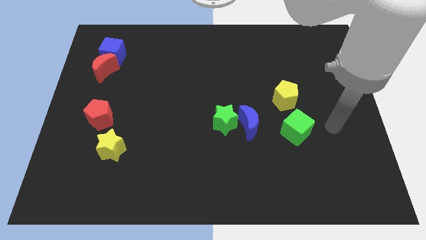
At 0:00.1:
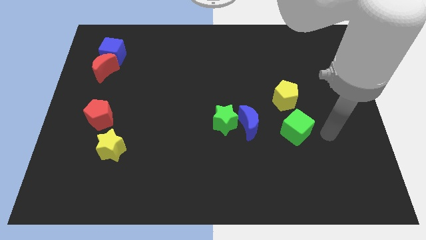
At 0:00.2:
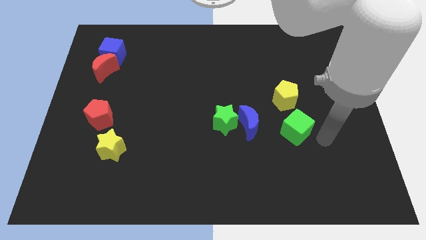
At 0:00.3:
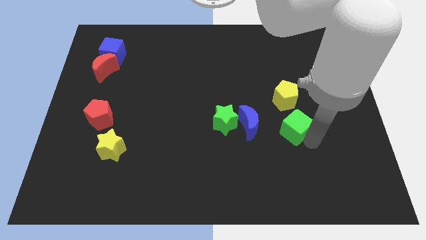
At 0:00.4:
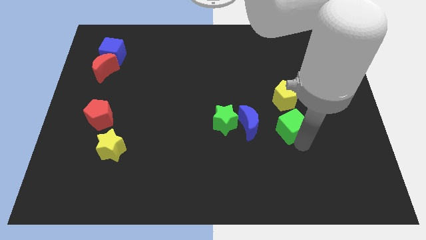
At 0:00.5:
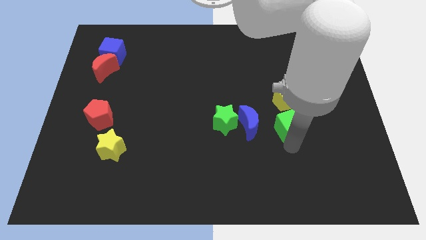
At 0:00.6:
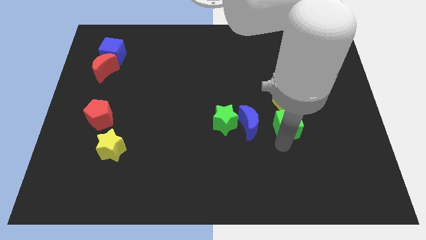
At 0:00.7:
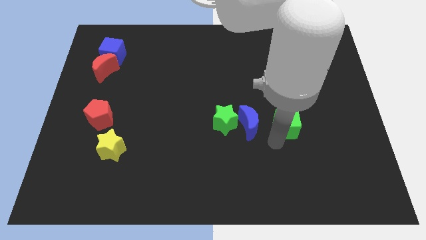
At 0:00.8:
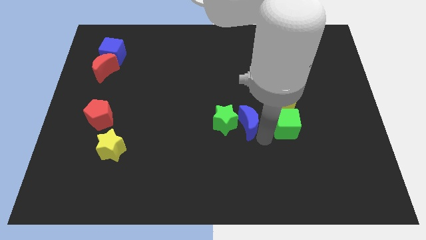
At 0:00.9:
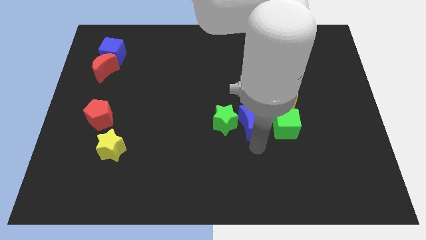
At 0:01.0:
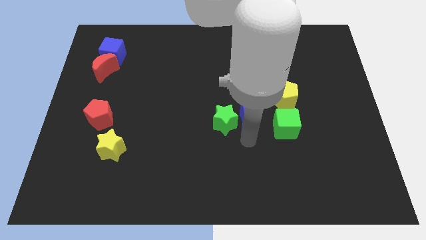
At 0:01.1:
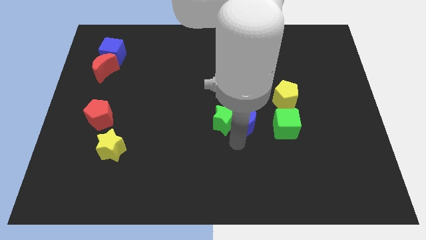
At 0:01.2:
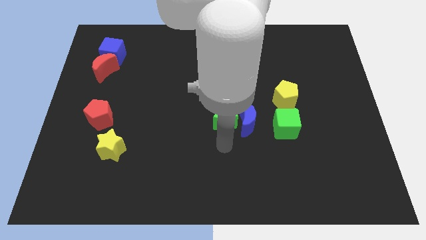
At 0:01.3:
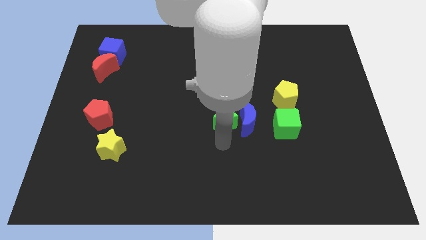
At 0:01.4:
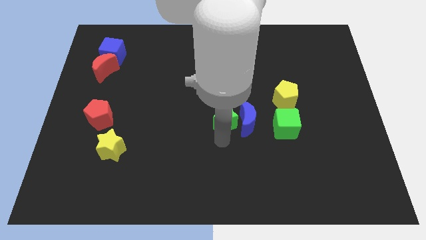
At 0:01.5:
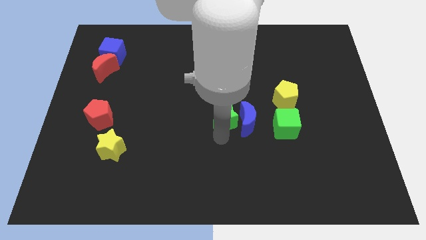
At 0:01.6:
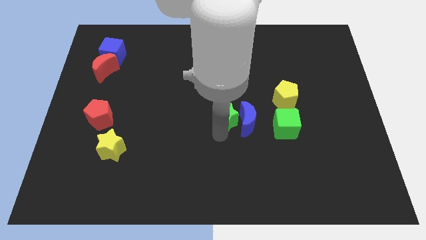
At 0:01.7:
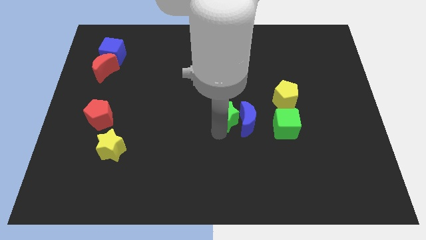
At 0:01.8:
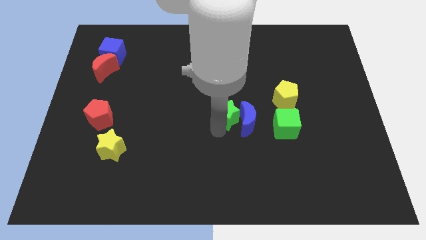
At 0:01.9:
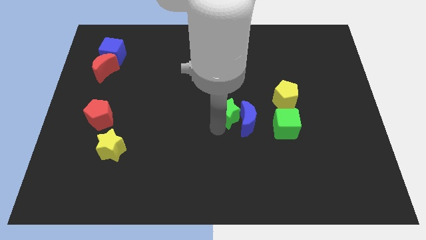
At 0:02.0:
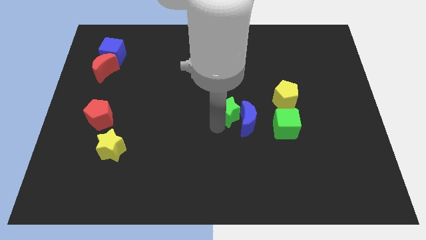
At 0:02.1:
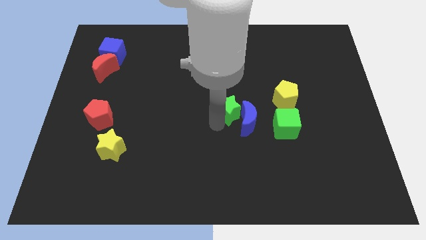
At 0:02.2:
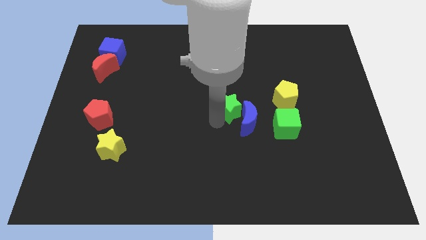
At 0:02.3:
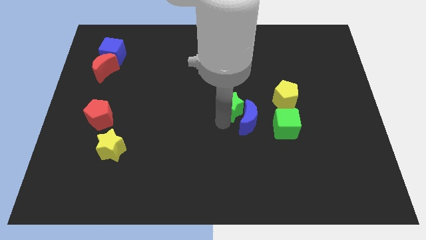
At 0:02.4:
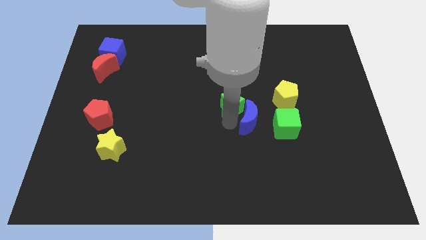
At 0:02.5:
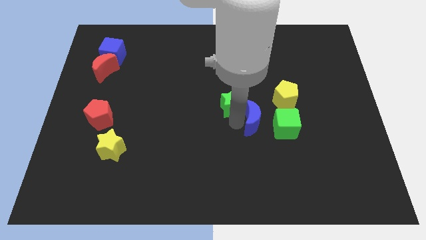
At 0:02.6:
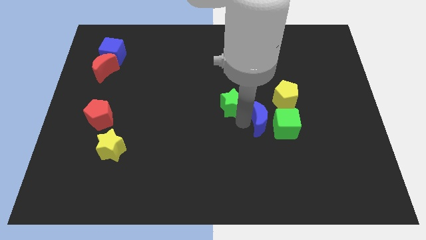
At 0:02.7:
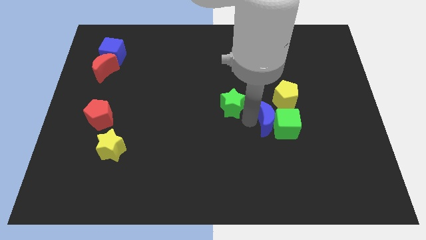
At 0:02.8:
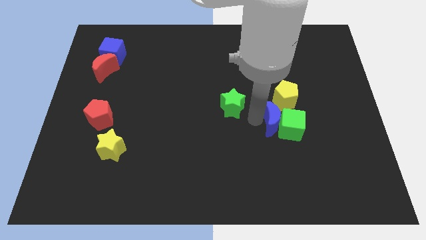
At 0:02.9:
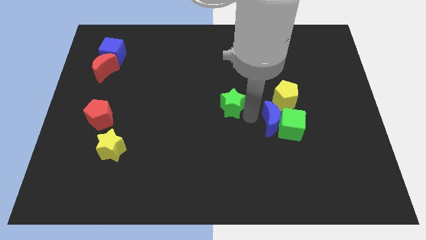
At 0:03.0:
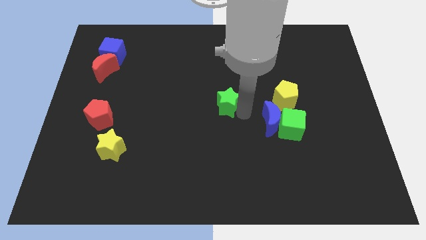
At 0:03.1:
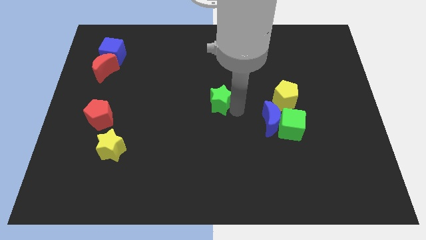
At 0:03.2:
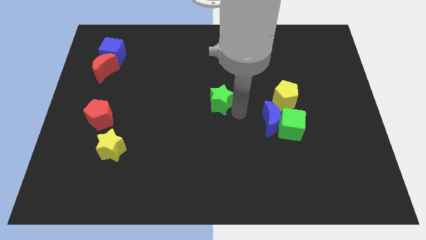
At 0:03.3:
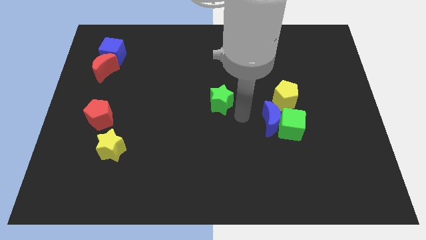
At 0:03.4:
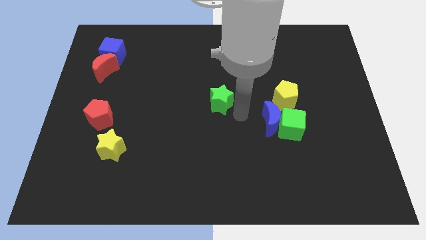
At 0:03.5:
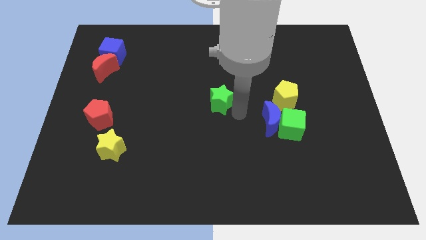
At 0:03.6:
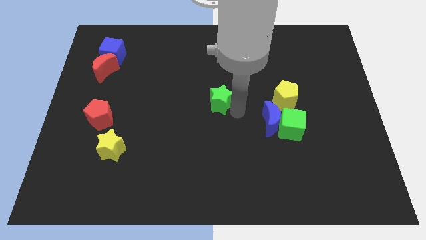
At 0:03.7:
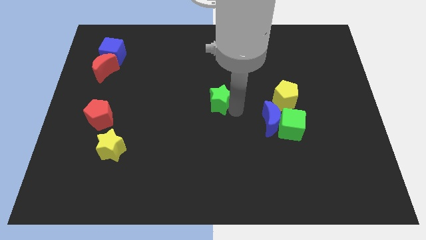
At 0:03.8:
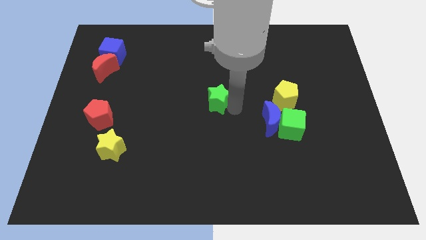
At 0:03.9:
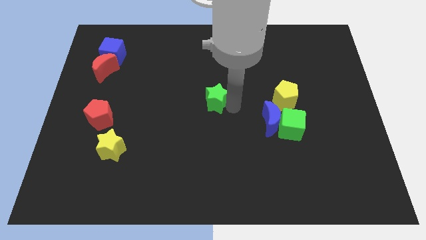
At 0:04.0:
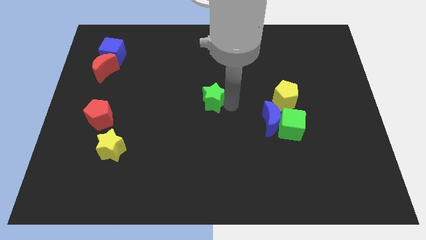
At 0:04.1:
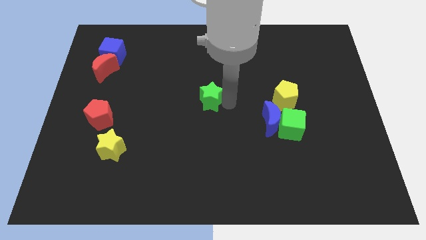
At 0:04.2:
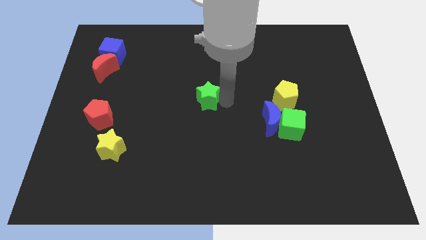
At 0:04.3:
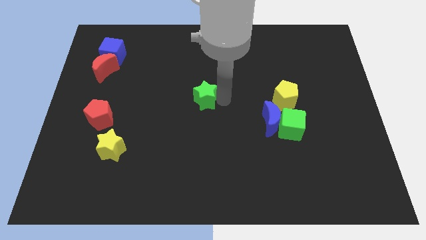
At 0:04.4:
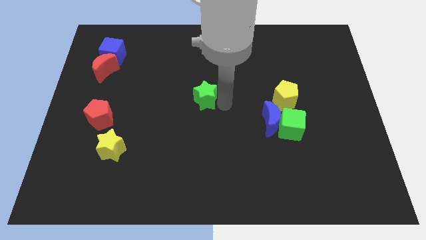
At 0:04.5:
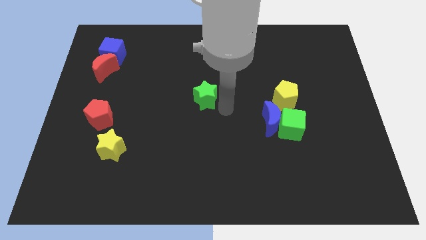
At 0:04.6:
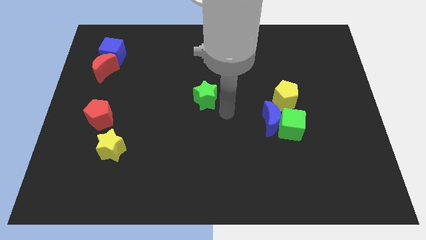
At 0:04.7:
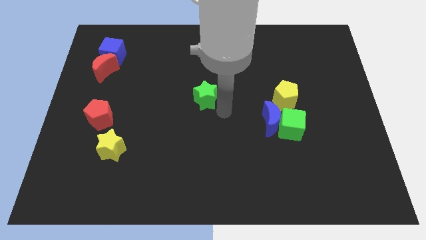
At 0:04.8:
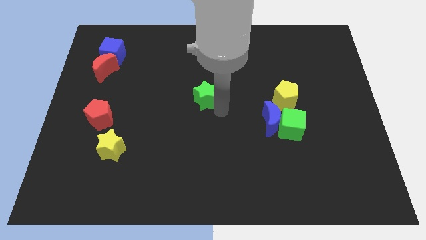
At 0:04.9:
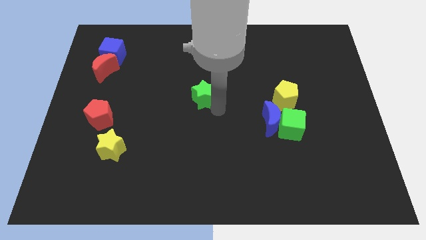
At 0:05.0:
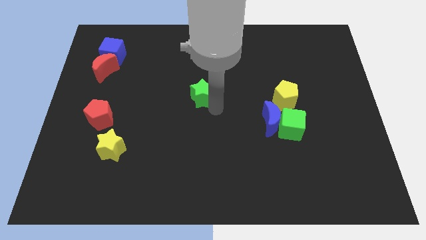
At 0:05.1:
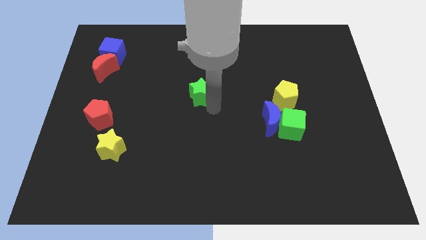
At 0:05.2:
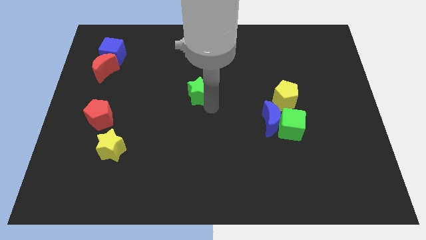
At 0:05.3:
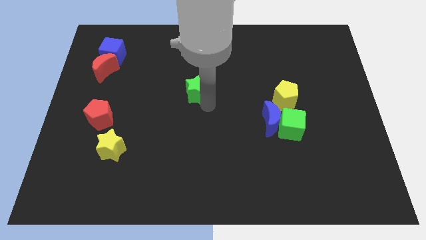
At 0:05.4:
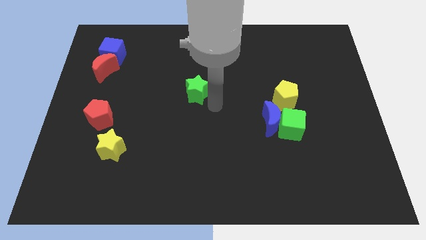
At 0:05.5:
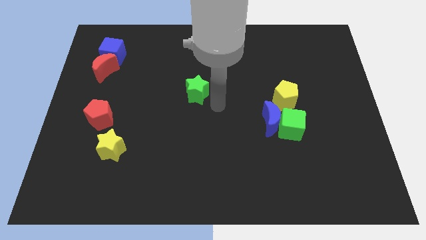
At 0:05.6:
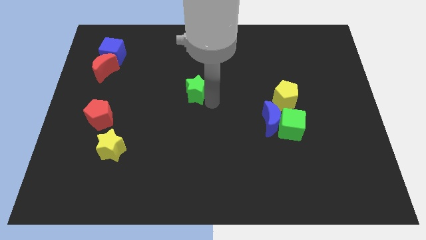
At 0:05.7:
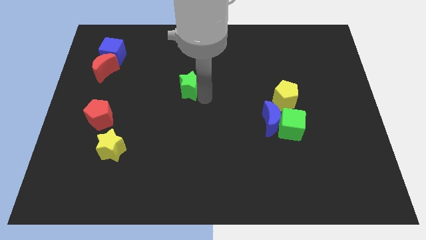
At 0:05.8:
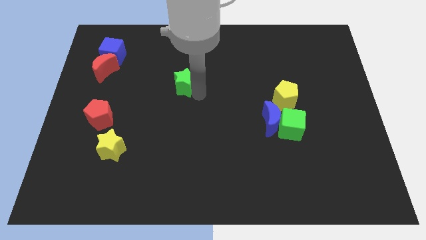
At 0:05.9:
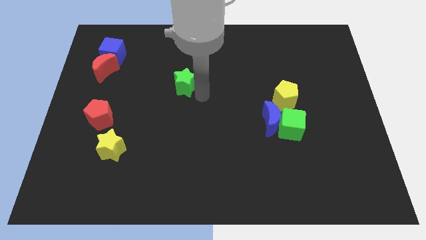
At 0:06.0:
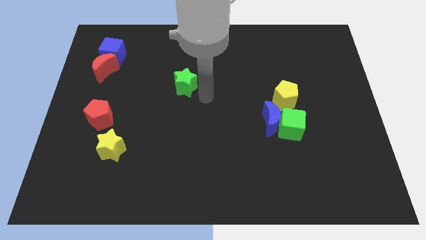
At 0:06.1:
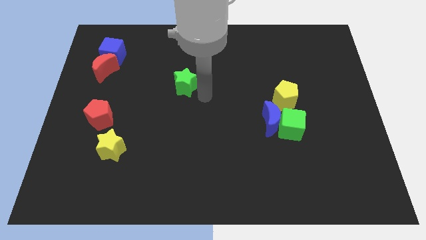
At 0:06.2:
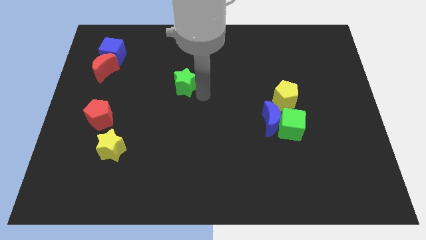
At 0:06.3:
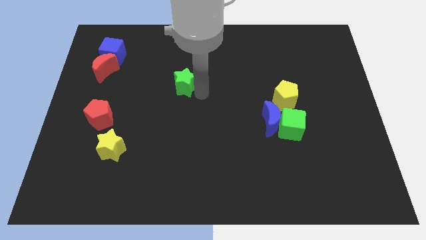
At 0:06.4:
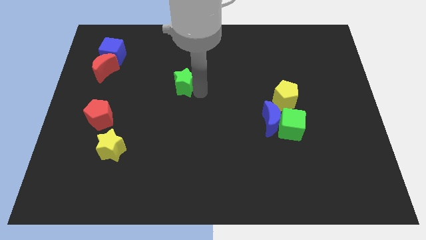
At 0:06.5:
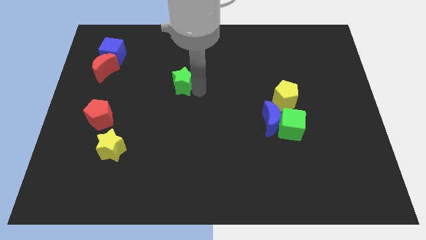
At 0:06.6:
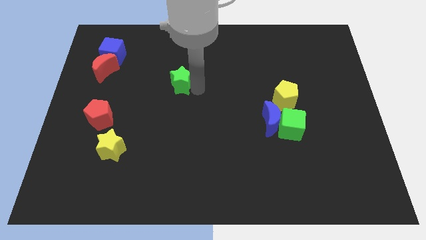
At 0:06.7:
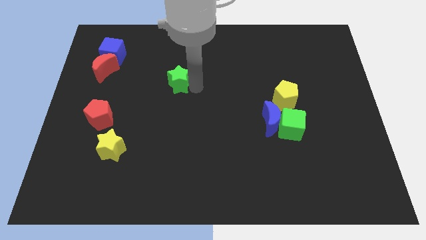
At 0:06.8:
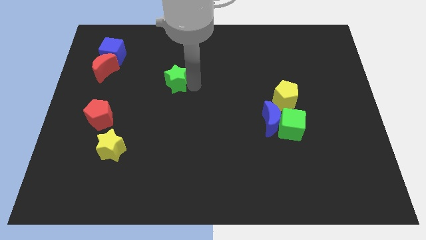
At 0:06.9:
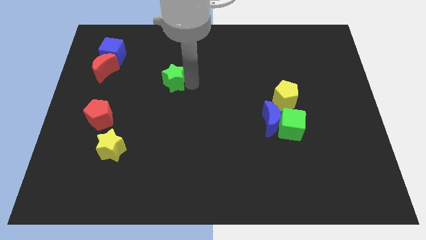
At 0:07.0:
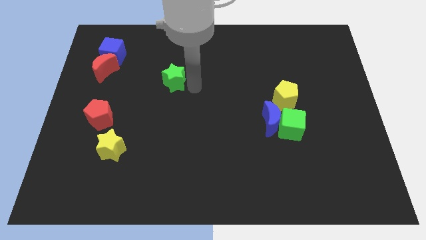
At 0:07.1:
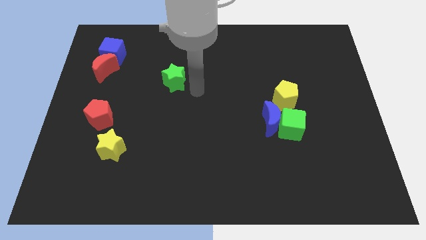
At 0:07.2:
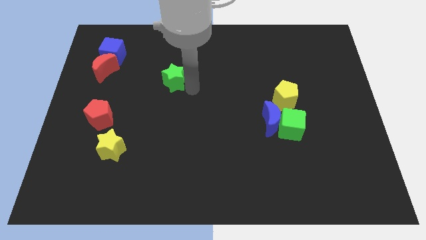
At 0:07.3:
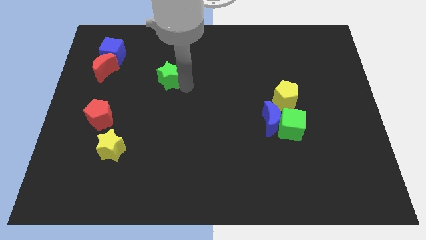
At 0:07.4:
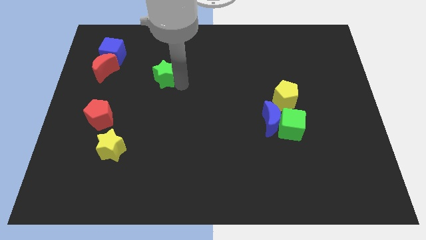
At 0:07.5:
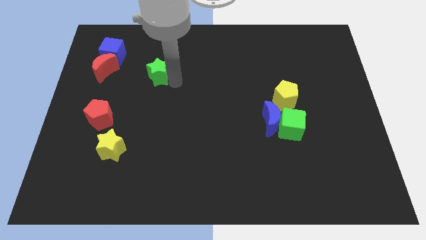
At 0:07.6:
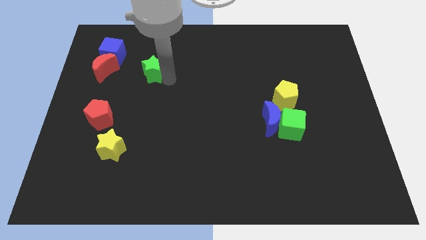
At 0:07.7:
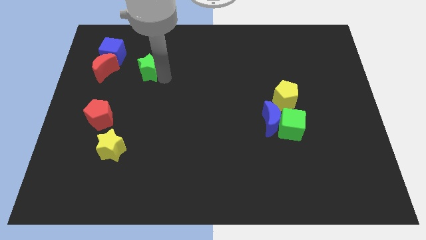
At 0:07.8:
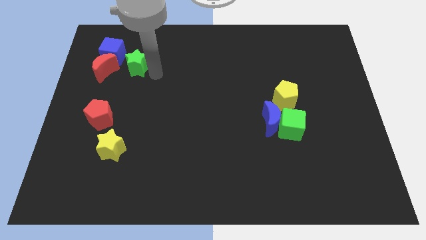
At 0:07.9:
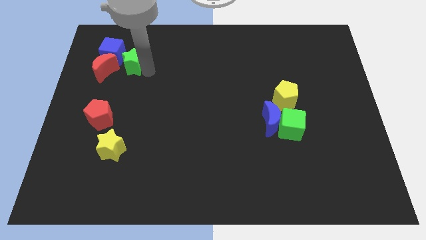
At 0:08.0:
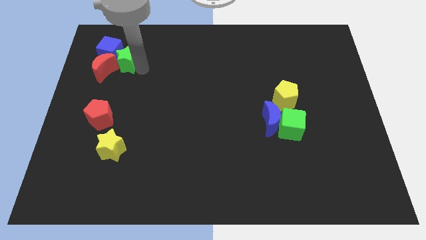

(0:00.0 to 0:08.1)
push the green star towards the blue cube
